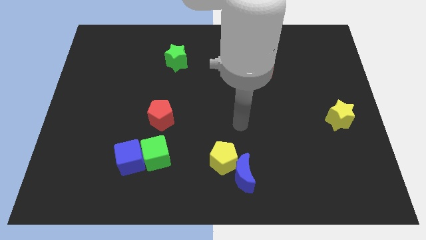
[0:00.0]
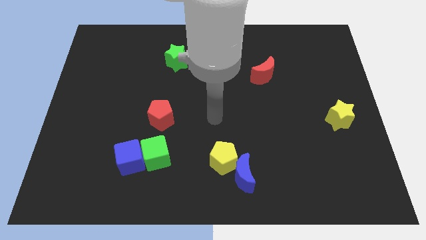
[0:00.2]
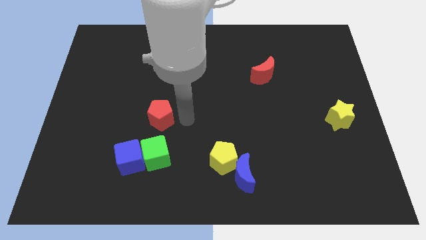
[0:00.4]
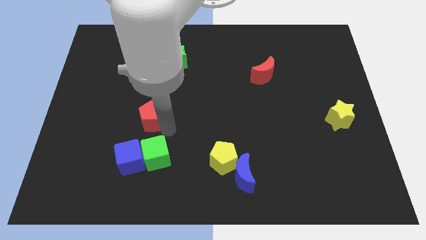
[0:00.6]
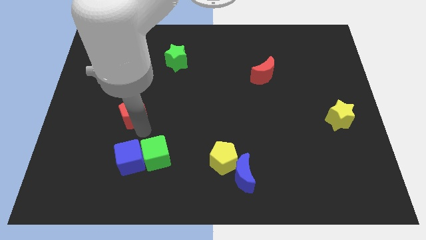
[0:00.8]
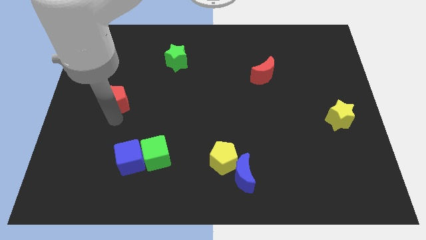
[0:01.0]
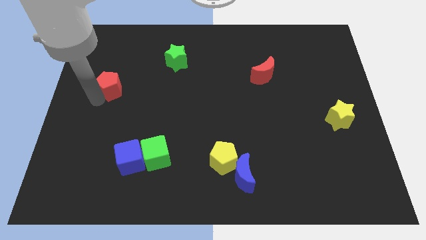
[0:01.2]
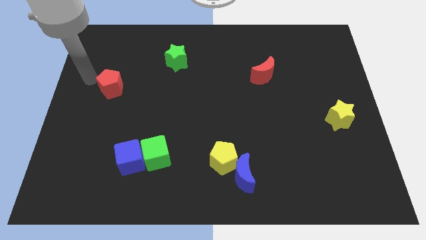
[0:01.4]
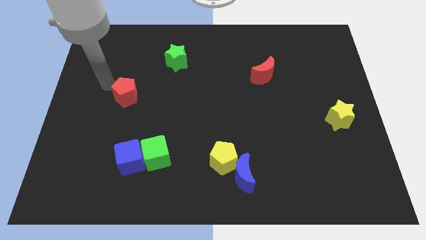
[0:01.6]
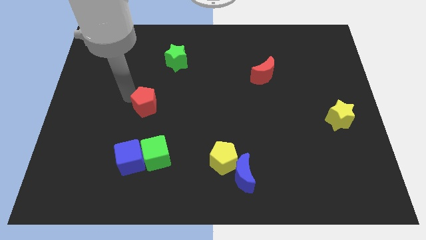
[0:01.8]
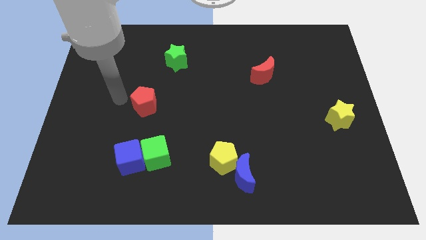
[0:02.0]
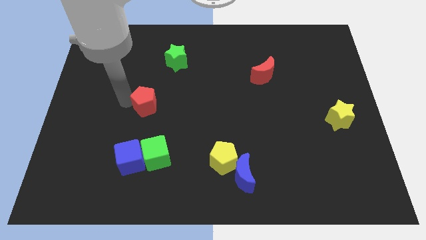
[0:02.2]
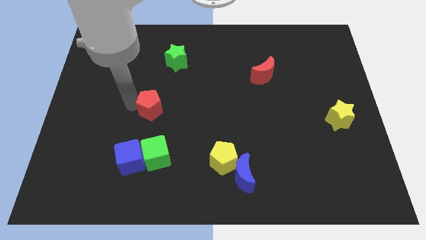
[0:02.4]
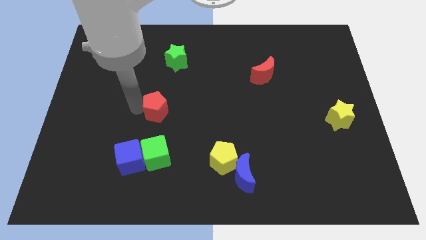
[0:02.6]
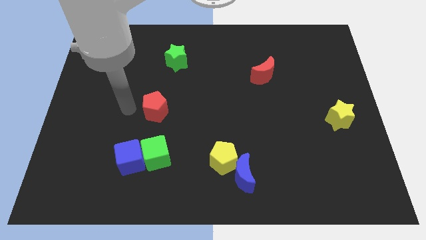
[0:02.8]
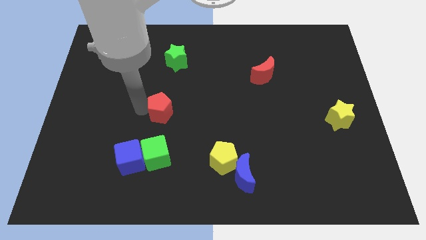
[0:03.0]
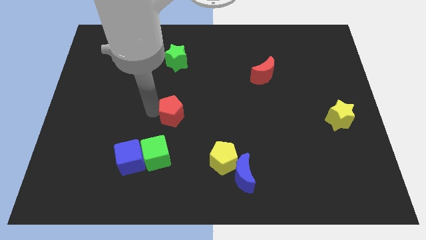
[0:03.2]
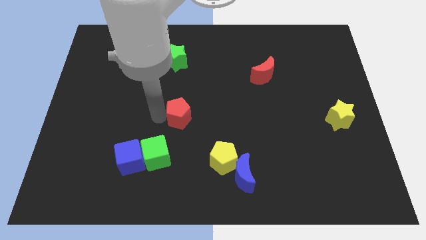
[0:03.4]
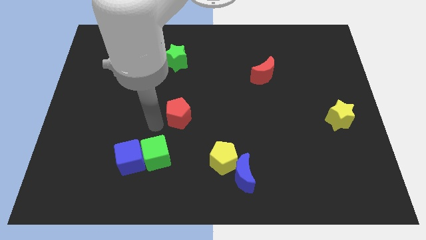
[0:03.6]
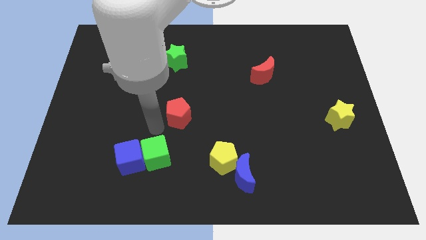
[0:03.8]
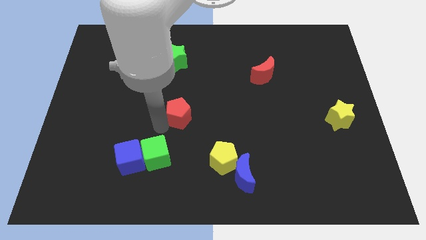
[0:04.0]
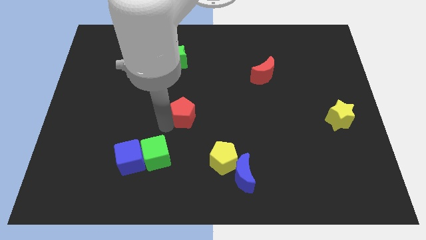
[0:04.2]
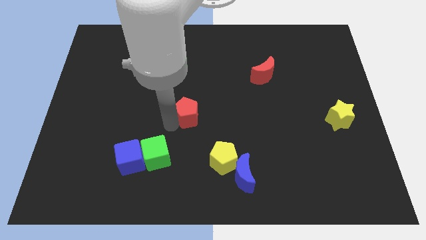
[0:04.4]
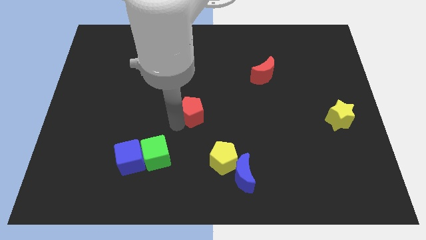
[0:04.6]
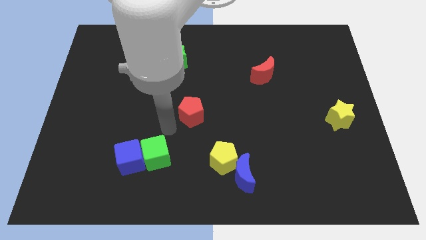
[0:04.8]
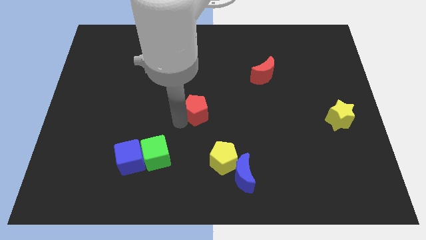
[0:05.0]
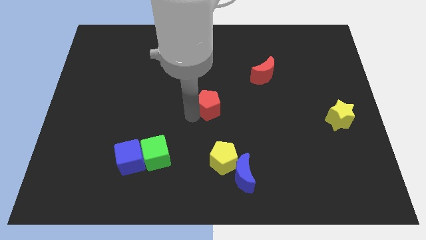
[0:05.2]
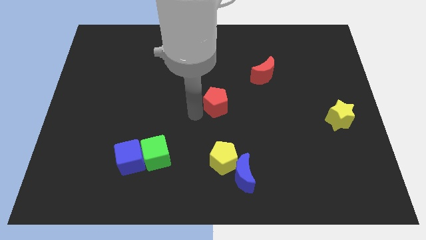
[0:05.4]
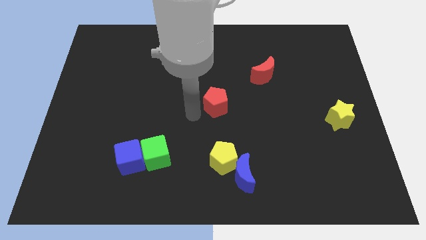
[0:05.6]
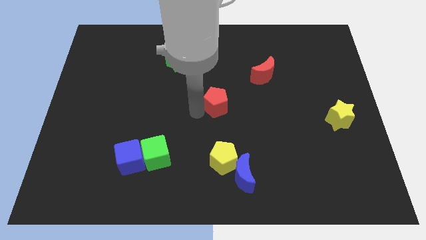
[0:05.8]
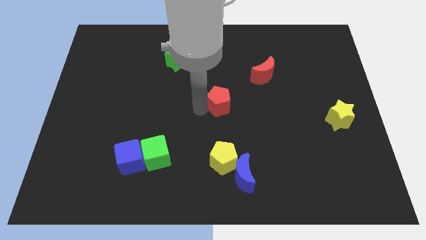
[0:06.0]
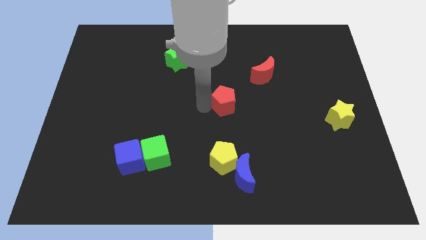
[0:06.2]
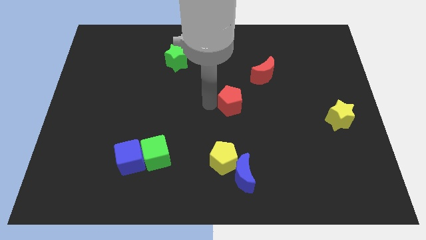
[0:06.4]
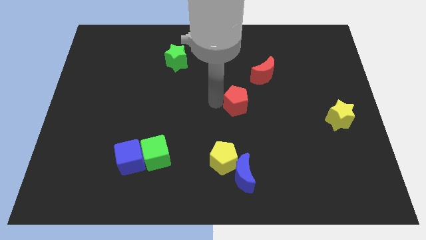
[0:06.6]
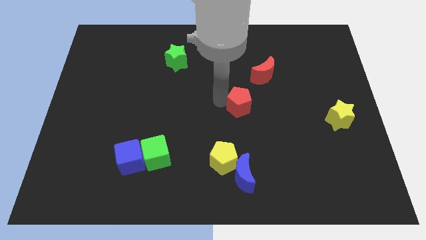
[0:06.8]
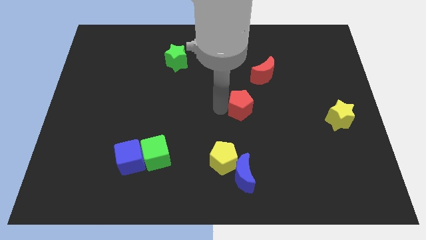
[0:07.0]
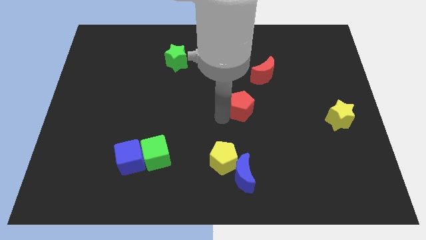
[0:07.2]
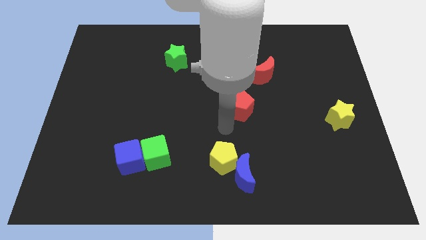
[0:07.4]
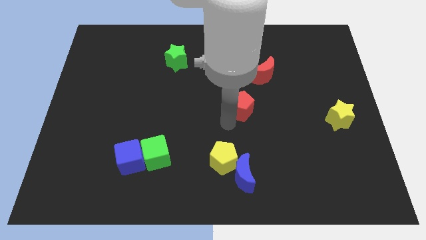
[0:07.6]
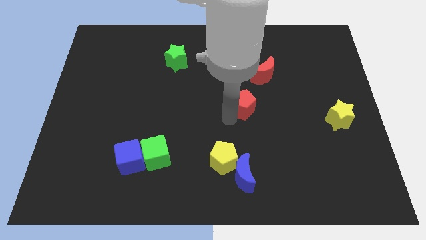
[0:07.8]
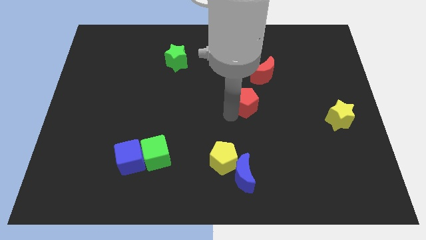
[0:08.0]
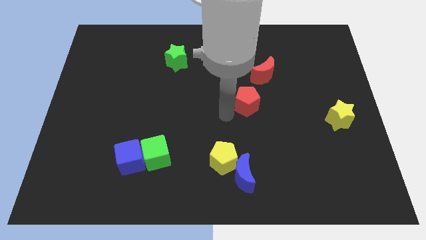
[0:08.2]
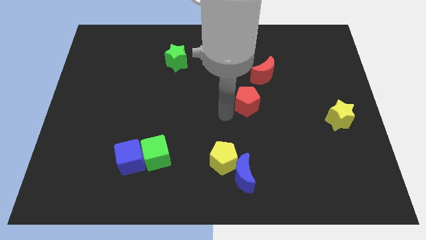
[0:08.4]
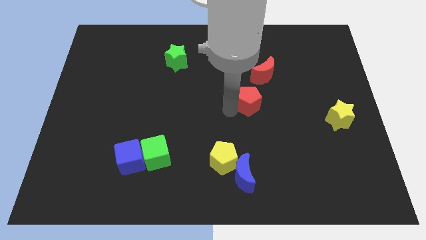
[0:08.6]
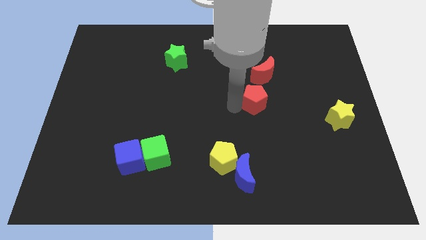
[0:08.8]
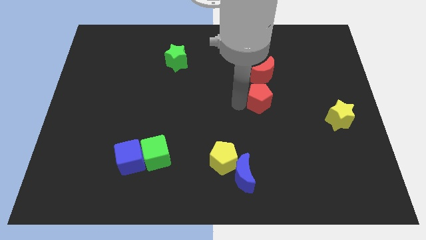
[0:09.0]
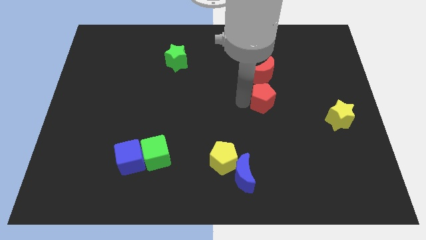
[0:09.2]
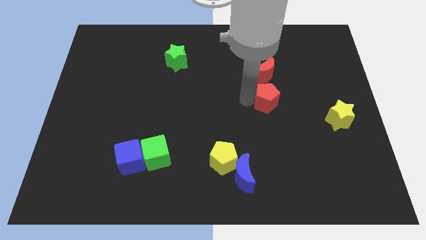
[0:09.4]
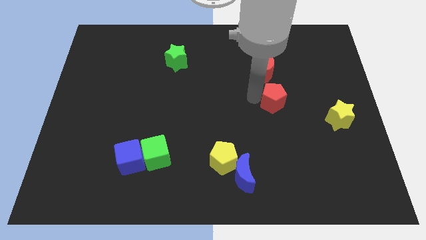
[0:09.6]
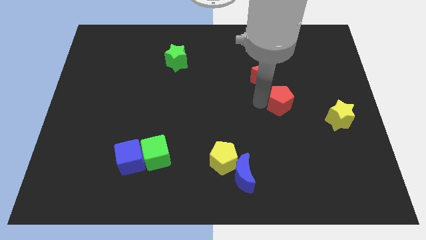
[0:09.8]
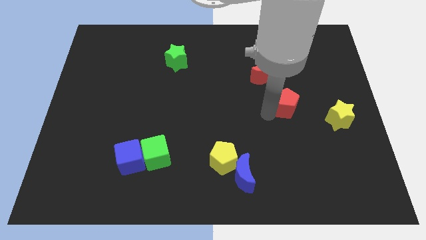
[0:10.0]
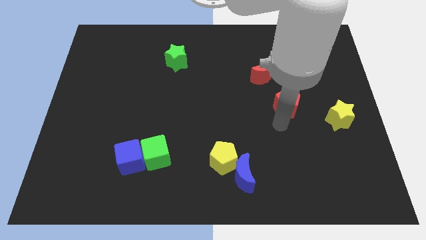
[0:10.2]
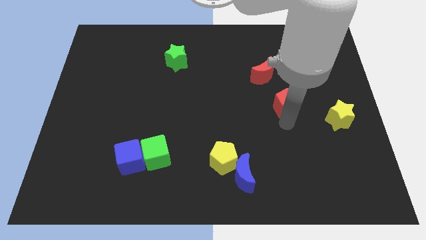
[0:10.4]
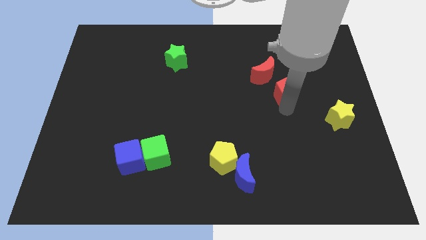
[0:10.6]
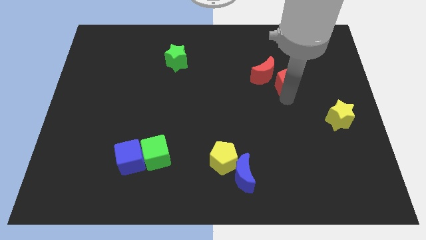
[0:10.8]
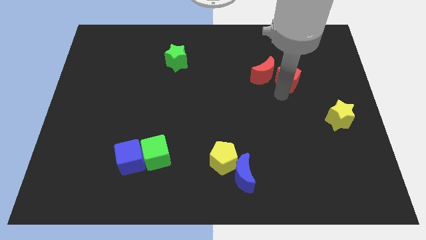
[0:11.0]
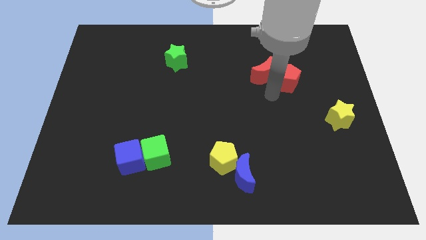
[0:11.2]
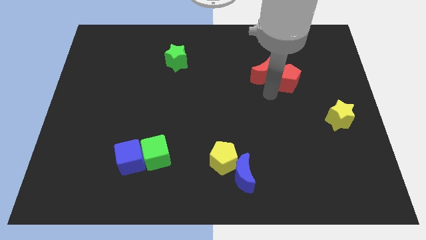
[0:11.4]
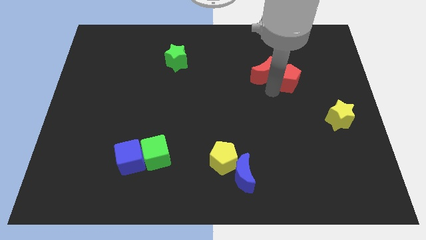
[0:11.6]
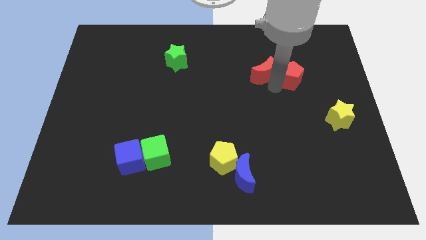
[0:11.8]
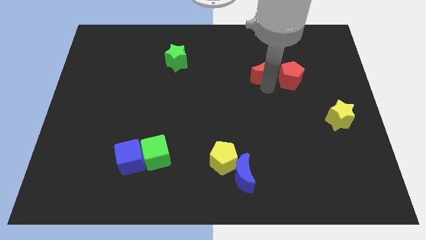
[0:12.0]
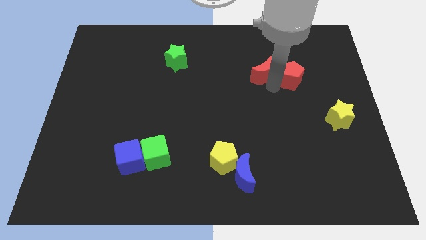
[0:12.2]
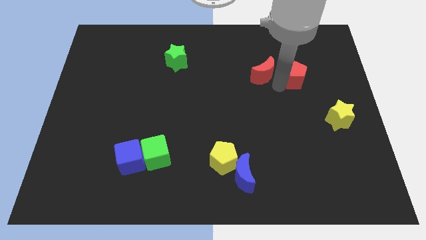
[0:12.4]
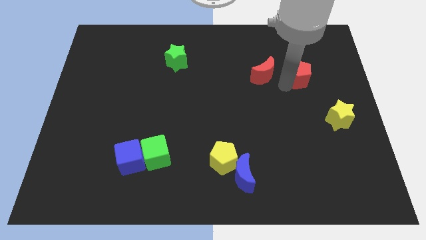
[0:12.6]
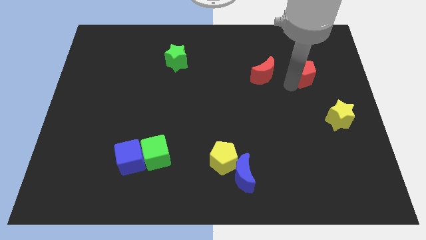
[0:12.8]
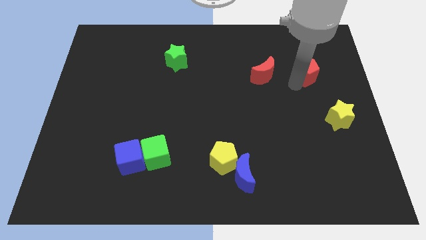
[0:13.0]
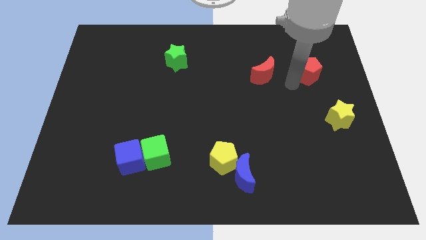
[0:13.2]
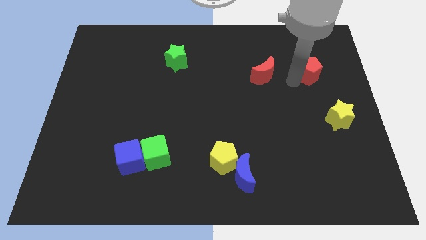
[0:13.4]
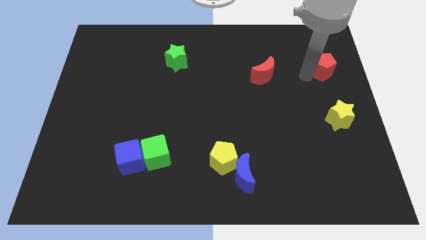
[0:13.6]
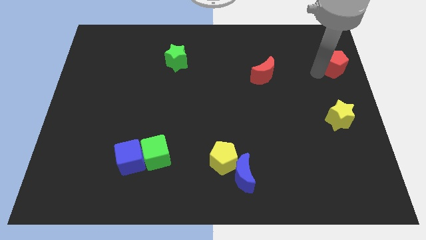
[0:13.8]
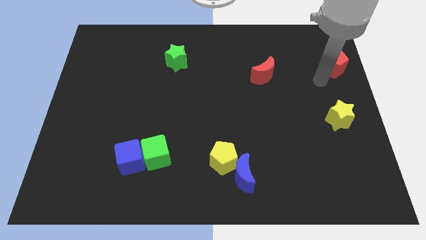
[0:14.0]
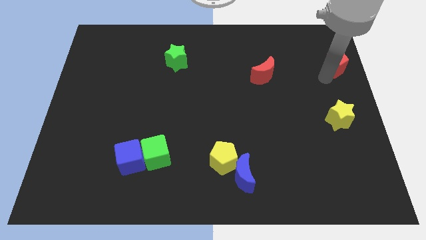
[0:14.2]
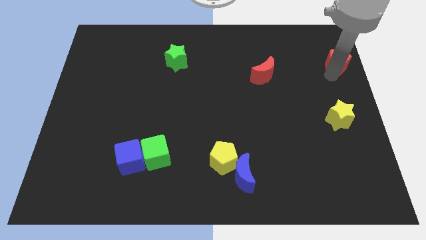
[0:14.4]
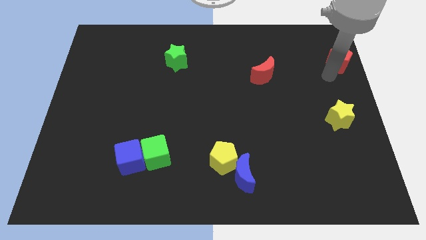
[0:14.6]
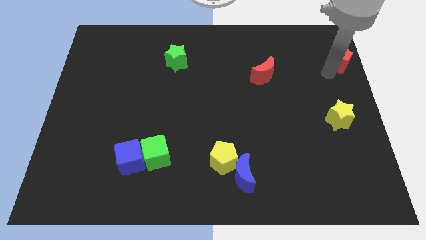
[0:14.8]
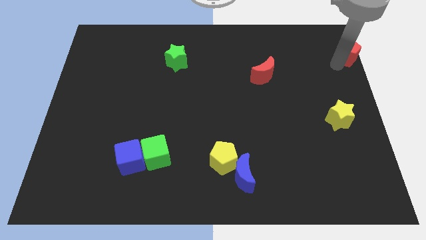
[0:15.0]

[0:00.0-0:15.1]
move the red pentagon to the upper right corner

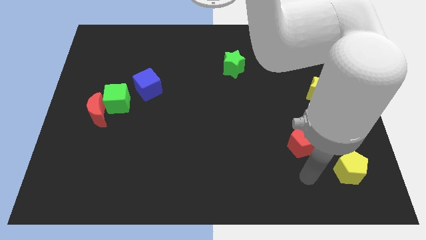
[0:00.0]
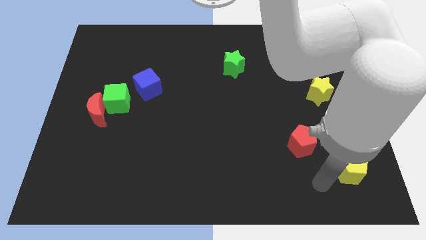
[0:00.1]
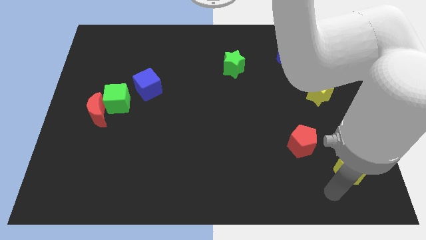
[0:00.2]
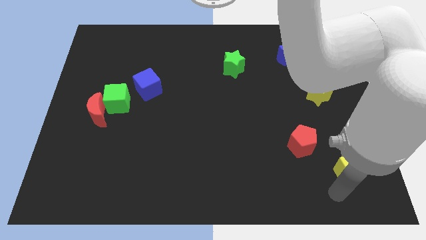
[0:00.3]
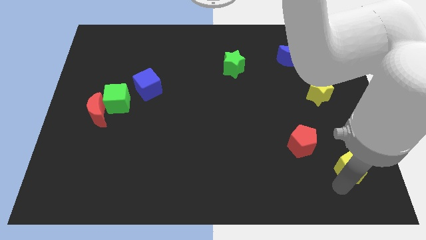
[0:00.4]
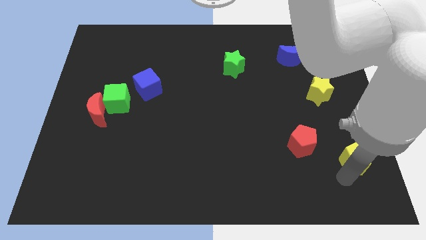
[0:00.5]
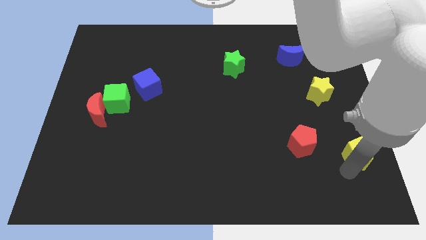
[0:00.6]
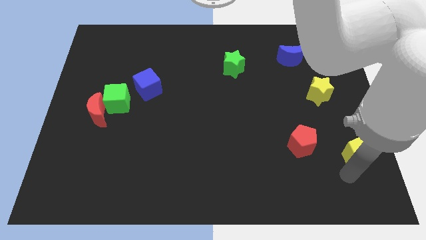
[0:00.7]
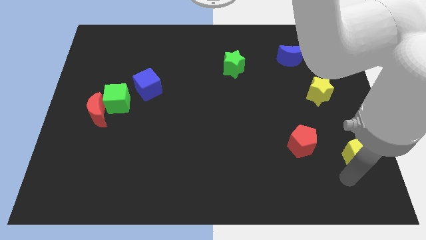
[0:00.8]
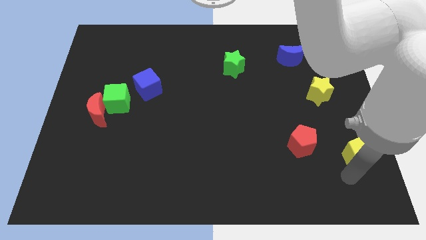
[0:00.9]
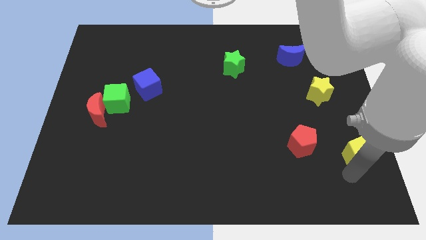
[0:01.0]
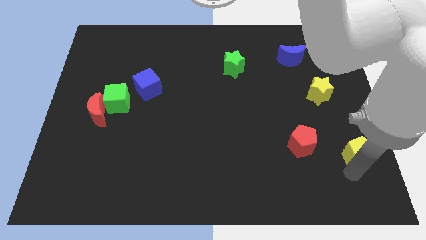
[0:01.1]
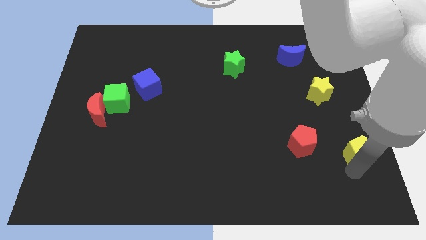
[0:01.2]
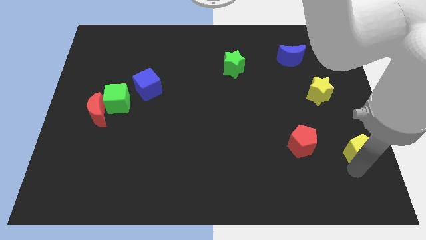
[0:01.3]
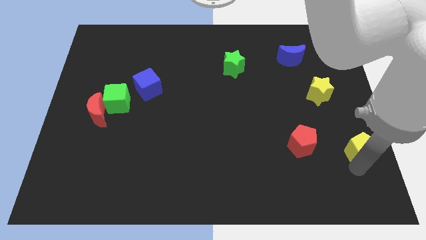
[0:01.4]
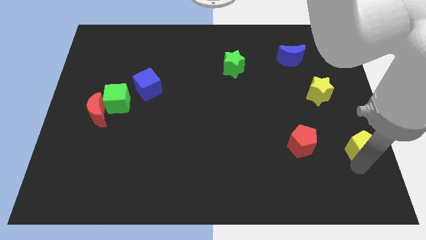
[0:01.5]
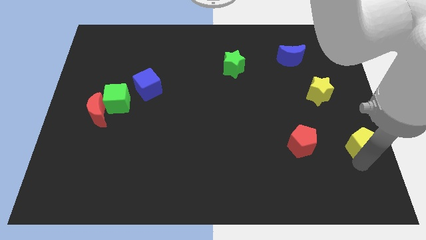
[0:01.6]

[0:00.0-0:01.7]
move the yellow pentagon to the right side
